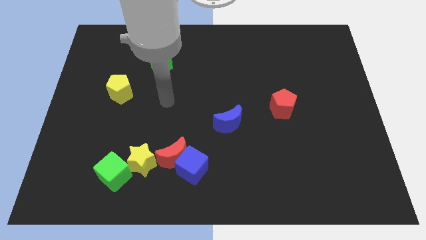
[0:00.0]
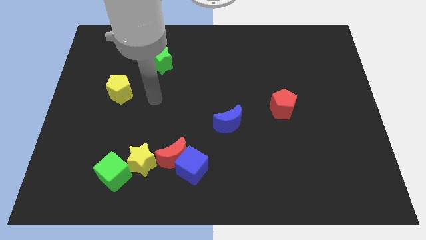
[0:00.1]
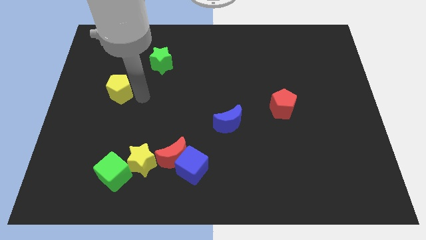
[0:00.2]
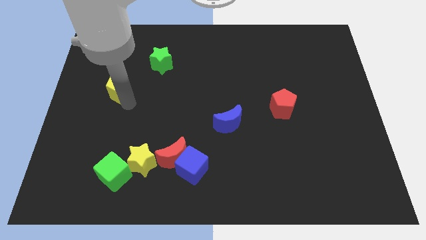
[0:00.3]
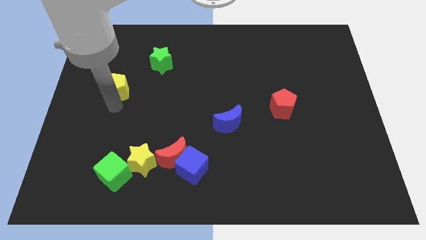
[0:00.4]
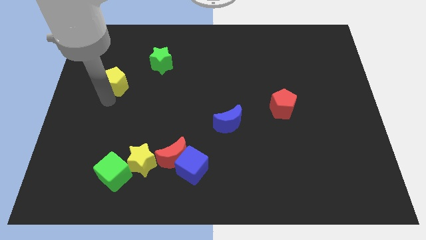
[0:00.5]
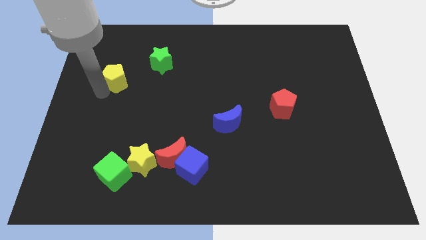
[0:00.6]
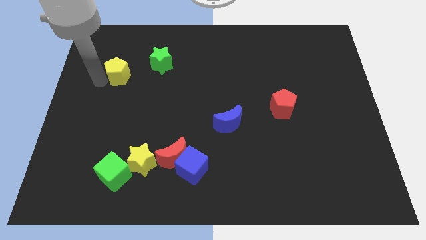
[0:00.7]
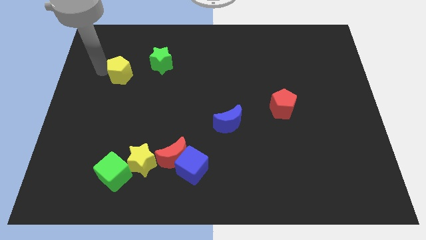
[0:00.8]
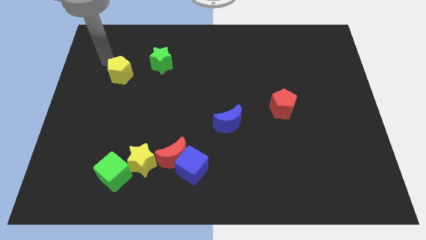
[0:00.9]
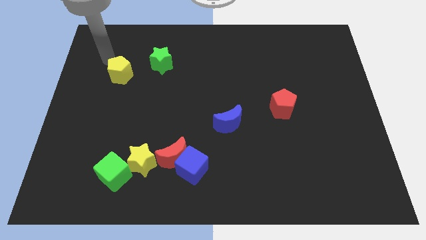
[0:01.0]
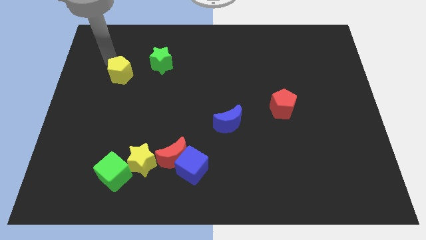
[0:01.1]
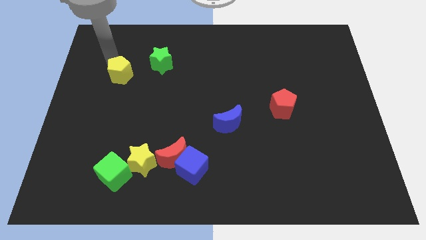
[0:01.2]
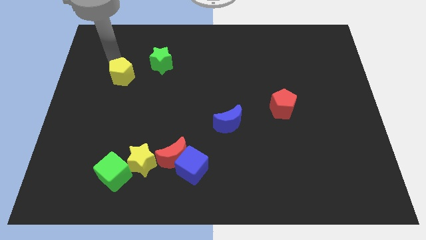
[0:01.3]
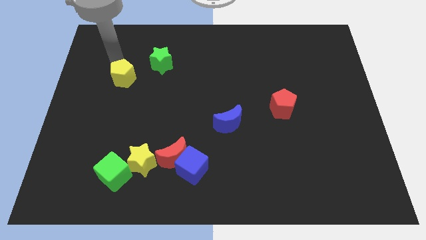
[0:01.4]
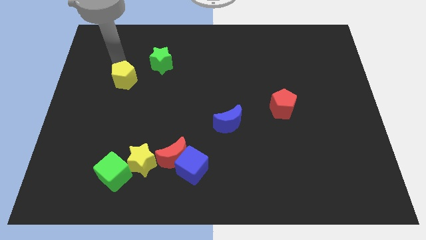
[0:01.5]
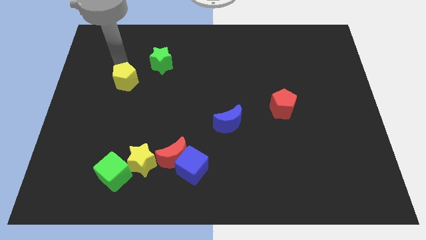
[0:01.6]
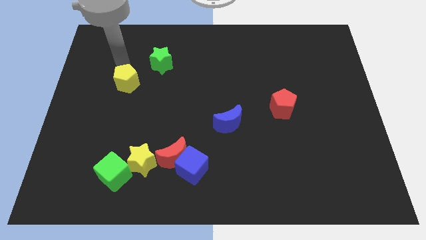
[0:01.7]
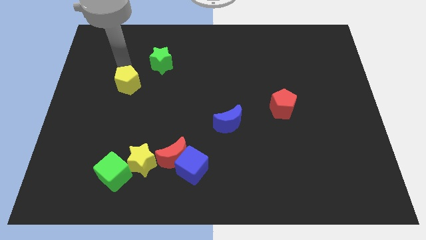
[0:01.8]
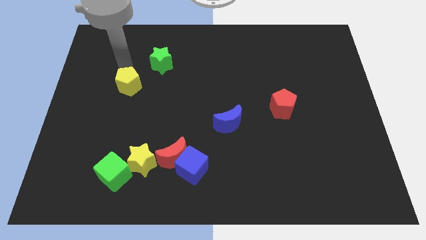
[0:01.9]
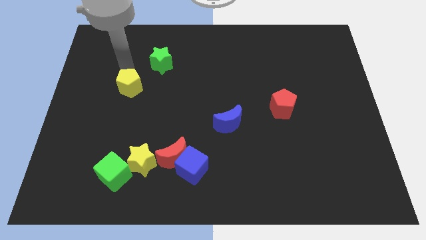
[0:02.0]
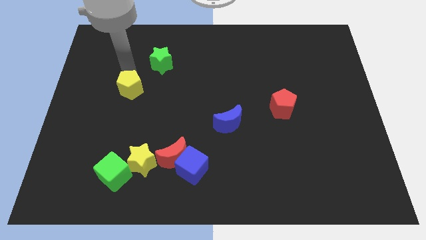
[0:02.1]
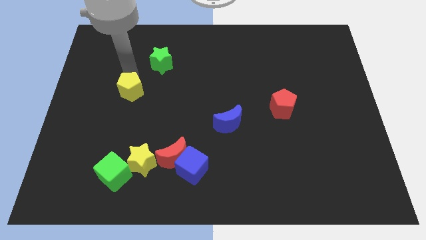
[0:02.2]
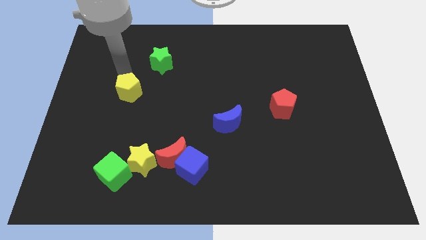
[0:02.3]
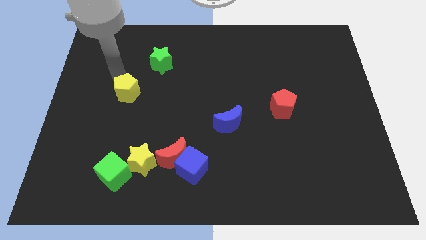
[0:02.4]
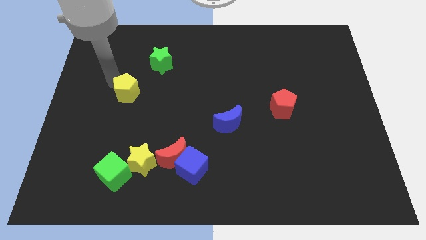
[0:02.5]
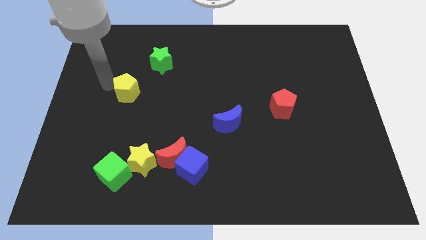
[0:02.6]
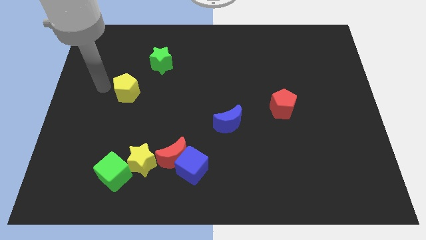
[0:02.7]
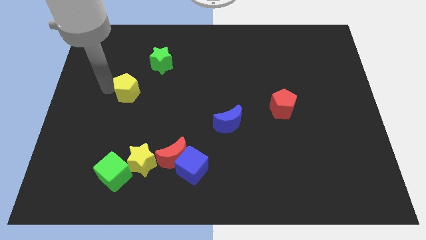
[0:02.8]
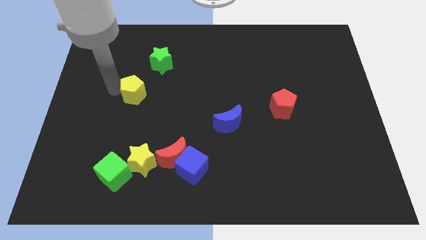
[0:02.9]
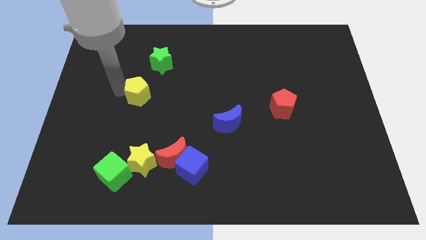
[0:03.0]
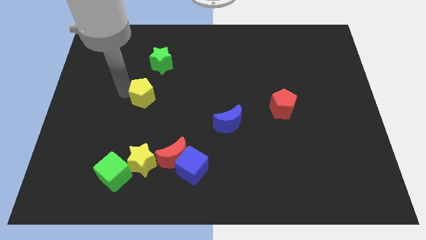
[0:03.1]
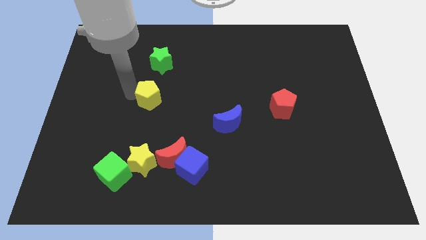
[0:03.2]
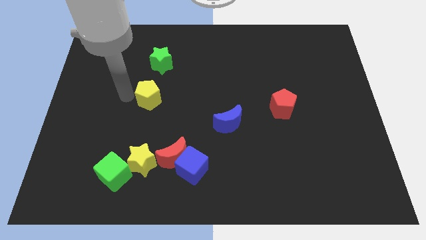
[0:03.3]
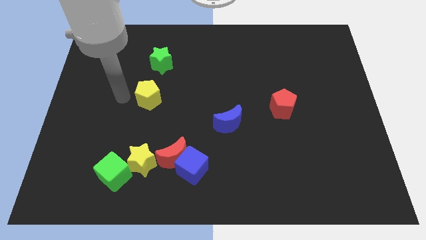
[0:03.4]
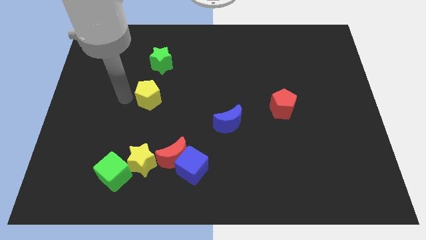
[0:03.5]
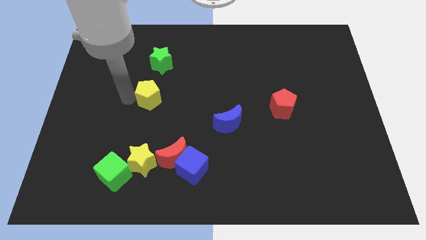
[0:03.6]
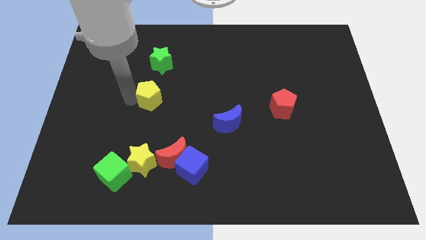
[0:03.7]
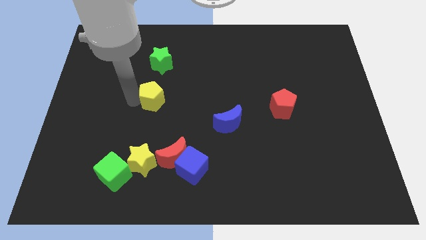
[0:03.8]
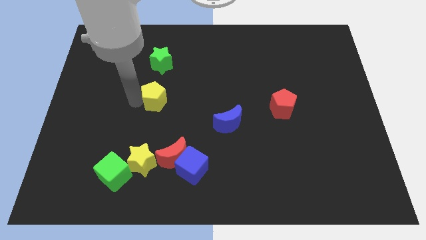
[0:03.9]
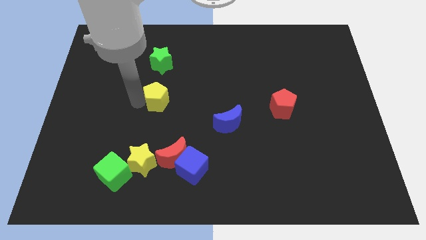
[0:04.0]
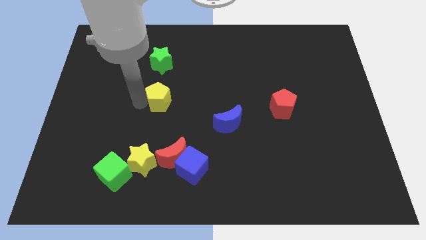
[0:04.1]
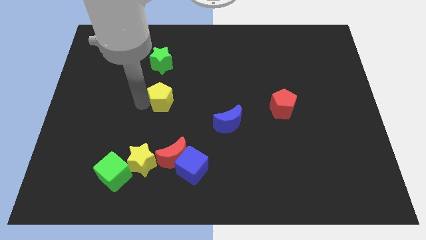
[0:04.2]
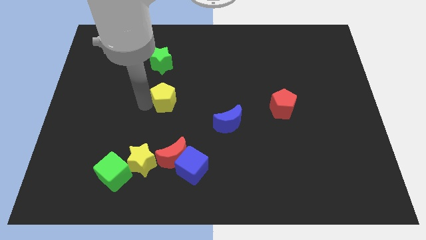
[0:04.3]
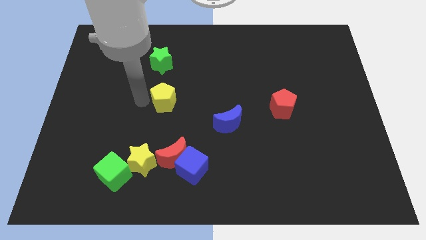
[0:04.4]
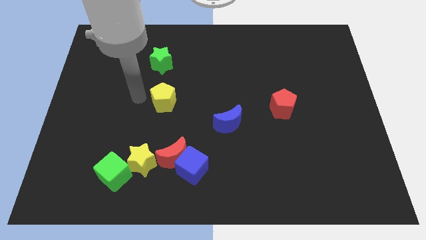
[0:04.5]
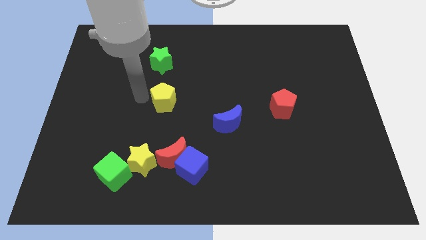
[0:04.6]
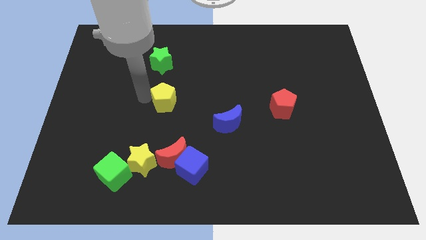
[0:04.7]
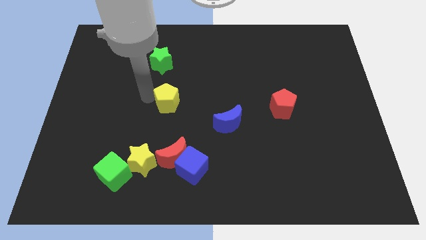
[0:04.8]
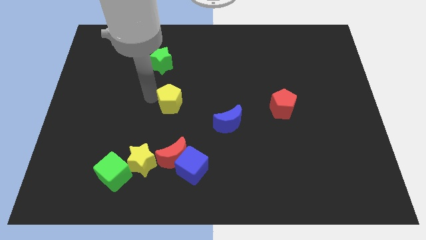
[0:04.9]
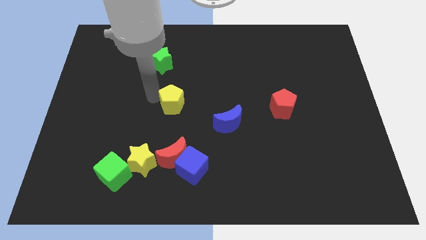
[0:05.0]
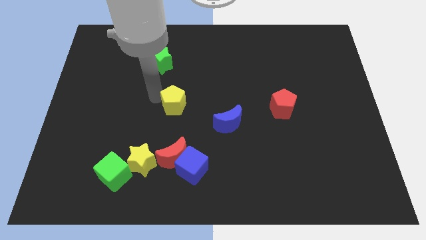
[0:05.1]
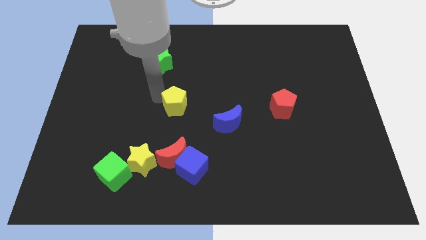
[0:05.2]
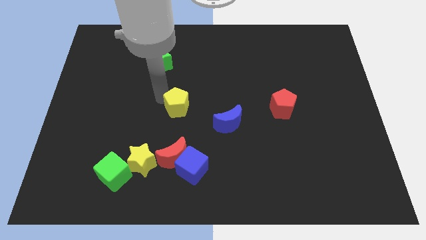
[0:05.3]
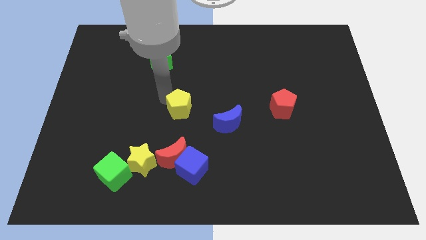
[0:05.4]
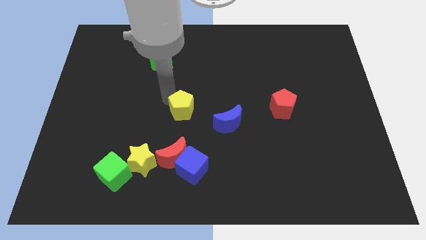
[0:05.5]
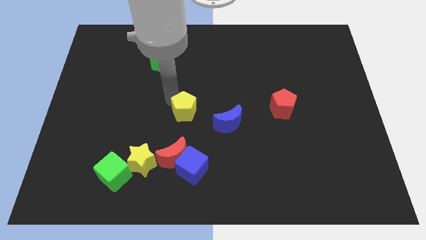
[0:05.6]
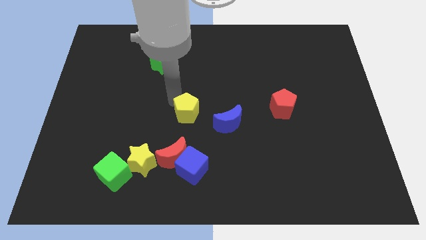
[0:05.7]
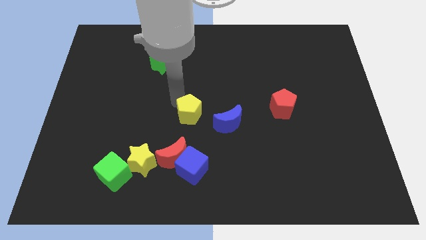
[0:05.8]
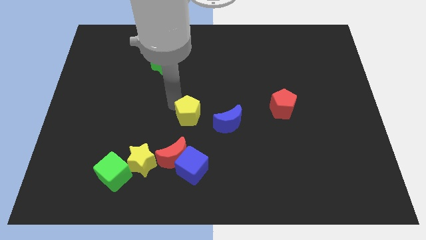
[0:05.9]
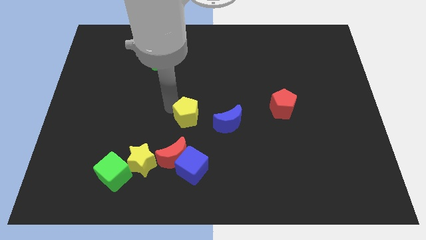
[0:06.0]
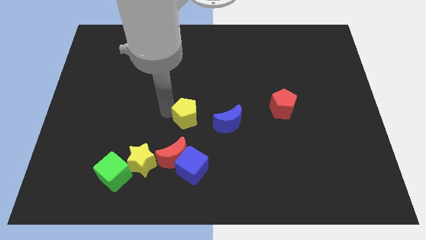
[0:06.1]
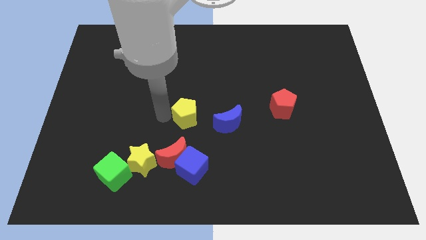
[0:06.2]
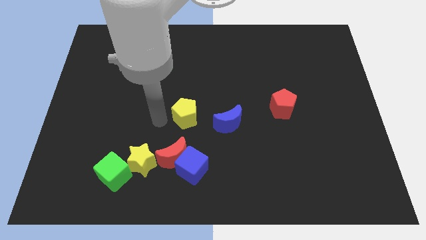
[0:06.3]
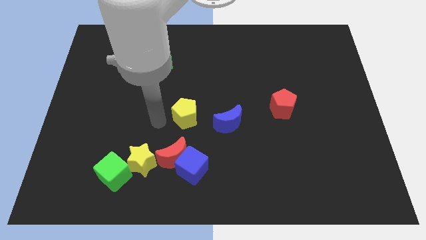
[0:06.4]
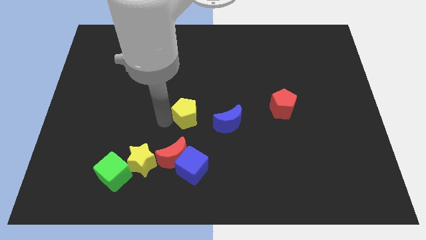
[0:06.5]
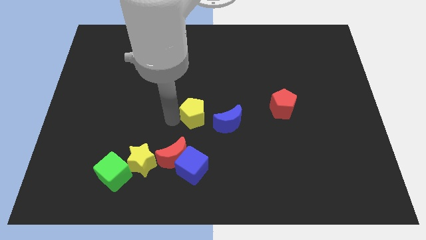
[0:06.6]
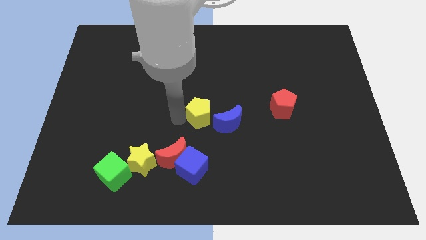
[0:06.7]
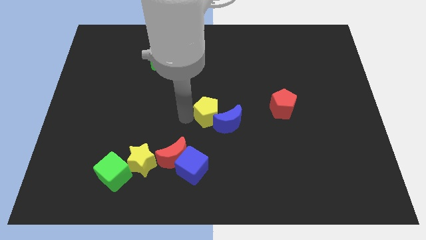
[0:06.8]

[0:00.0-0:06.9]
put the yellow pentagon next to the blue moon
